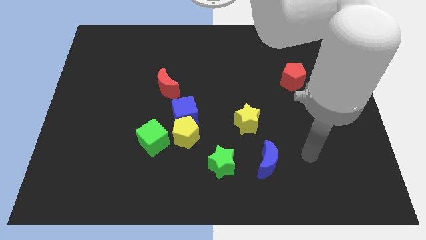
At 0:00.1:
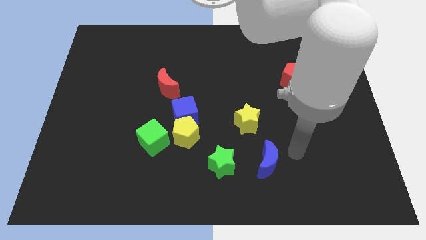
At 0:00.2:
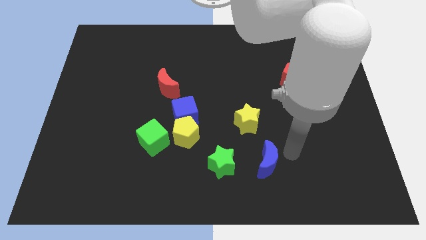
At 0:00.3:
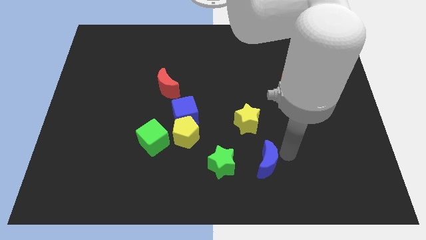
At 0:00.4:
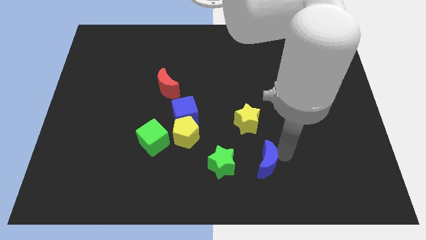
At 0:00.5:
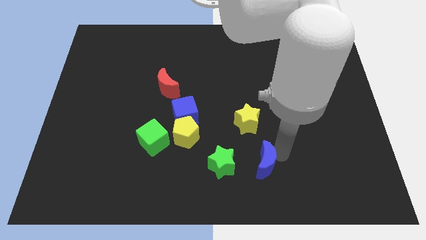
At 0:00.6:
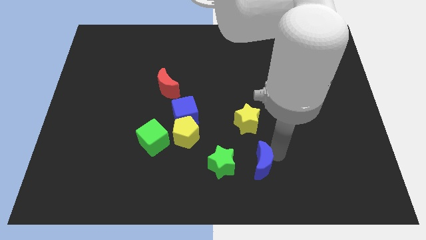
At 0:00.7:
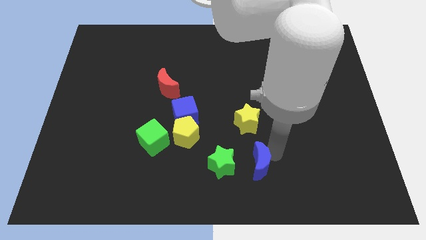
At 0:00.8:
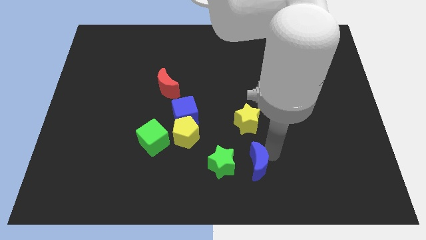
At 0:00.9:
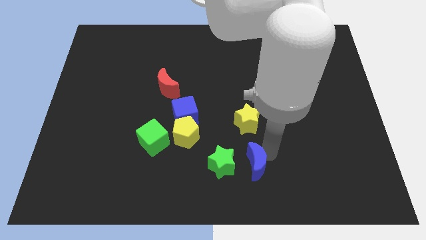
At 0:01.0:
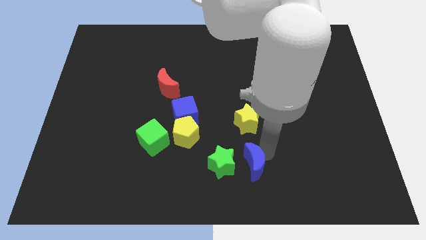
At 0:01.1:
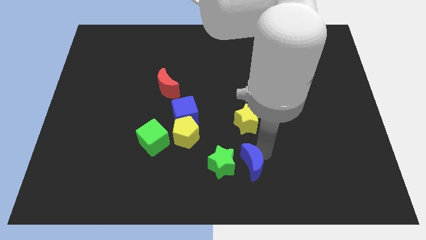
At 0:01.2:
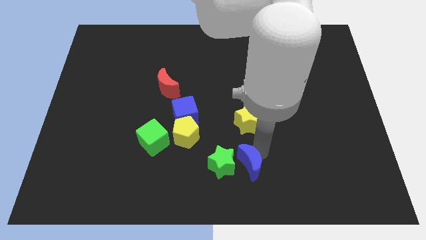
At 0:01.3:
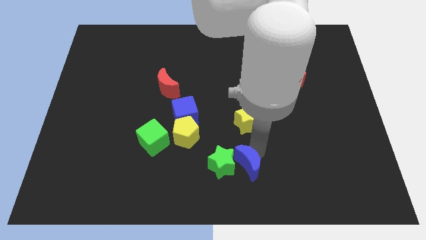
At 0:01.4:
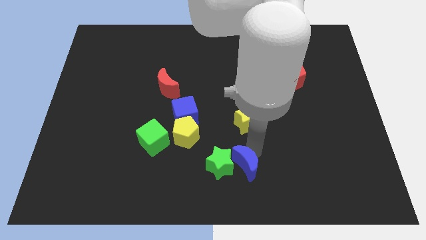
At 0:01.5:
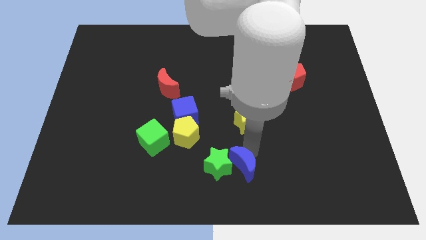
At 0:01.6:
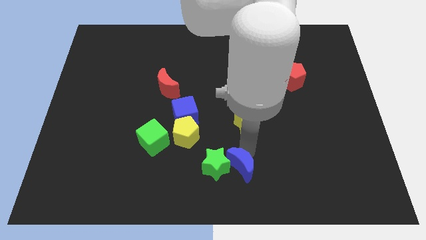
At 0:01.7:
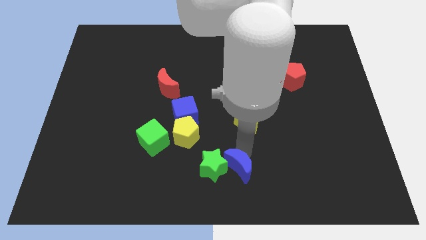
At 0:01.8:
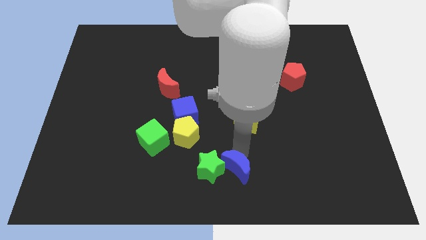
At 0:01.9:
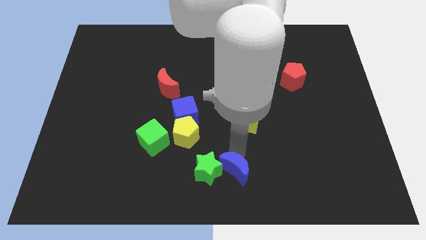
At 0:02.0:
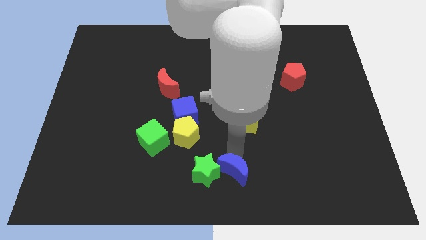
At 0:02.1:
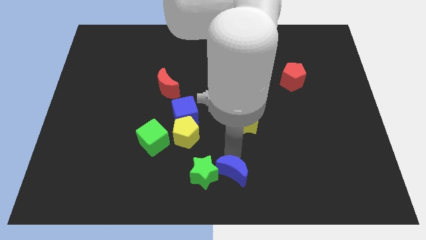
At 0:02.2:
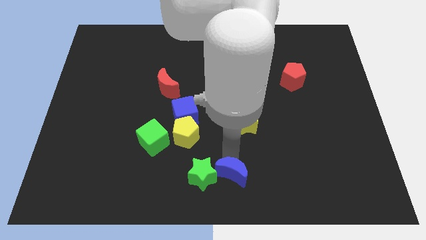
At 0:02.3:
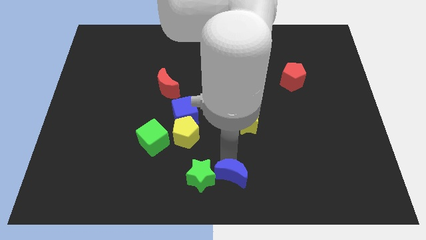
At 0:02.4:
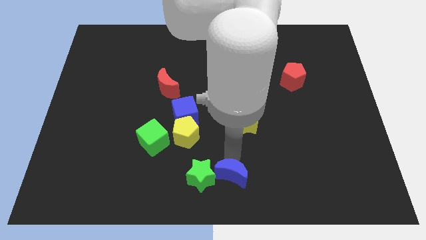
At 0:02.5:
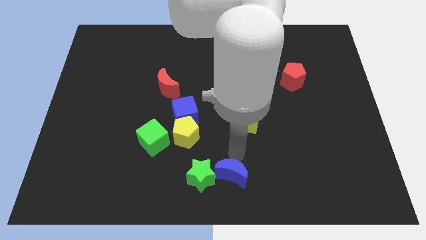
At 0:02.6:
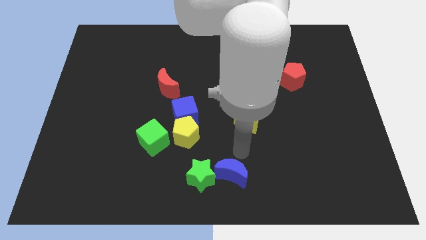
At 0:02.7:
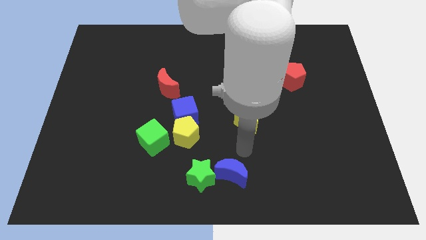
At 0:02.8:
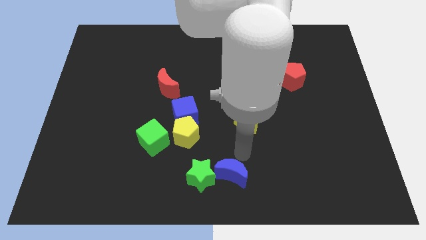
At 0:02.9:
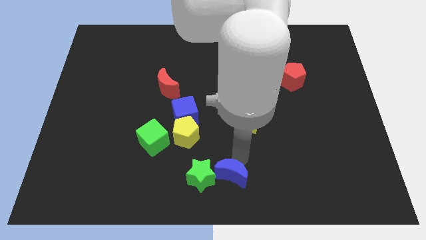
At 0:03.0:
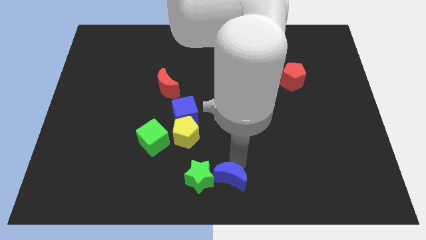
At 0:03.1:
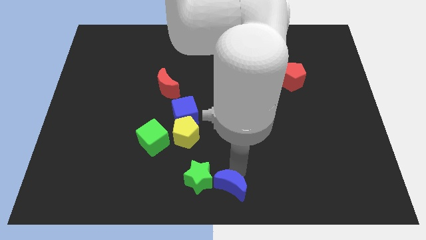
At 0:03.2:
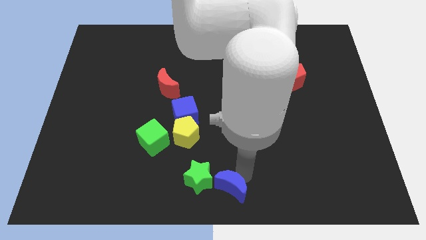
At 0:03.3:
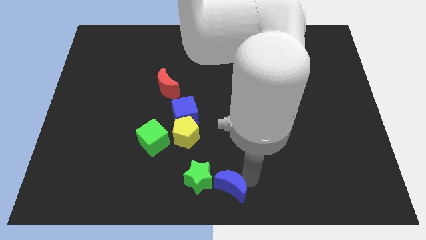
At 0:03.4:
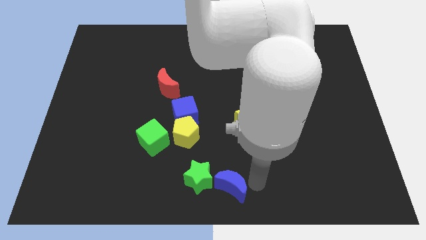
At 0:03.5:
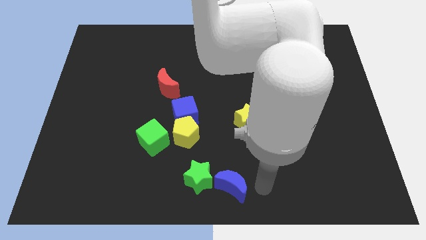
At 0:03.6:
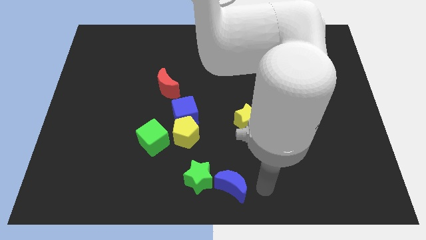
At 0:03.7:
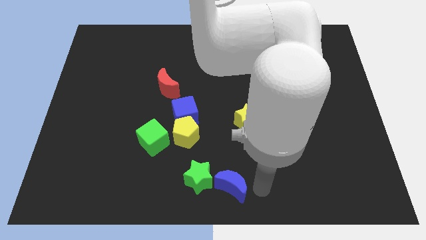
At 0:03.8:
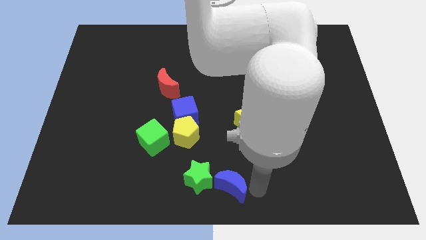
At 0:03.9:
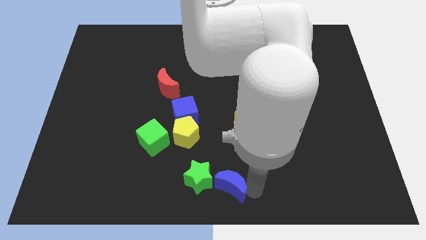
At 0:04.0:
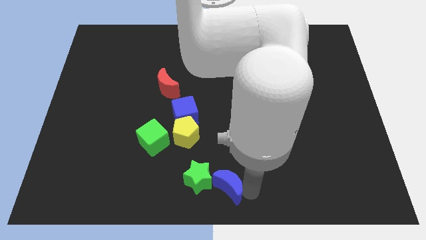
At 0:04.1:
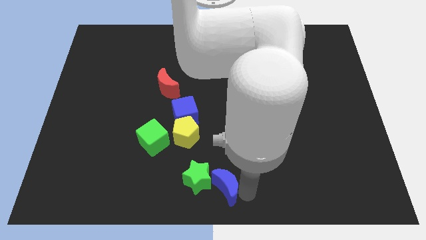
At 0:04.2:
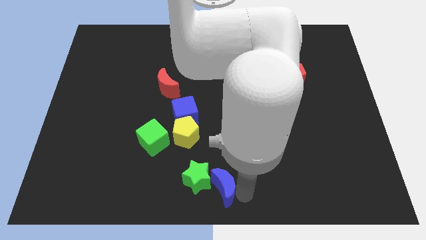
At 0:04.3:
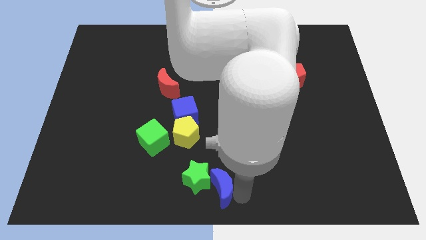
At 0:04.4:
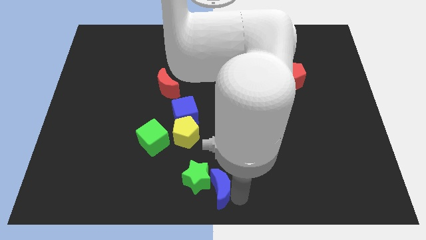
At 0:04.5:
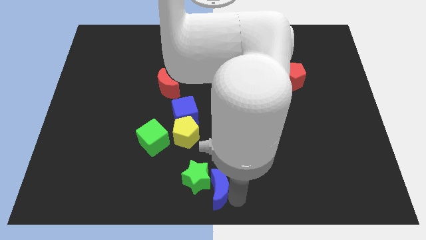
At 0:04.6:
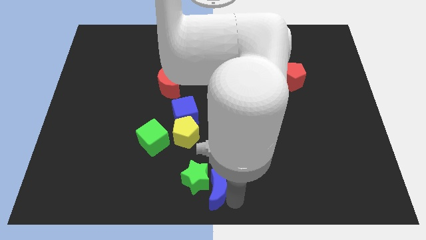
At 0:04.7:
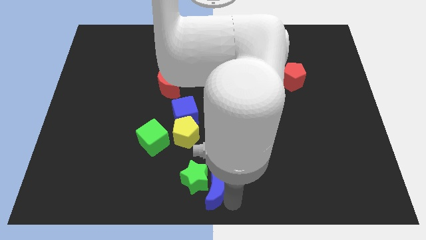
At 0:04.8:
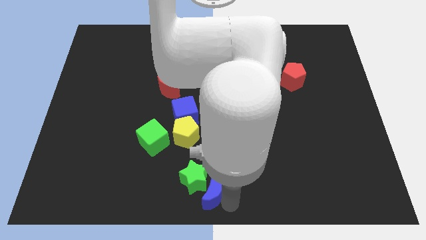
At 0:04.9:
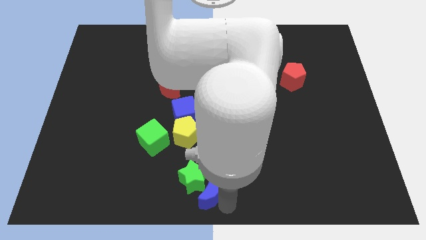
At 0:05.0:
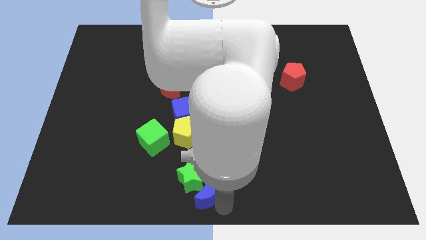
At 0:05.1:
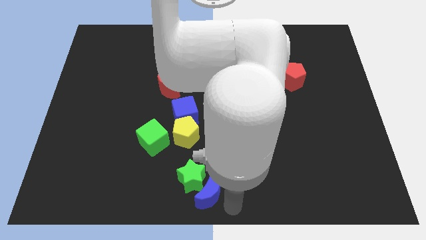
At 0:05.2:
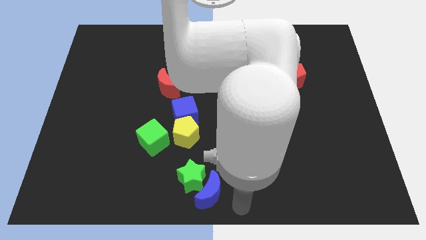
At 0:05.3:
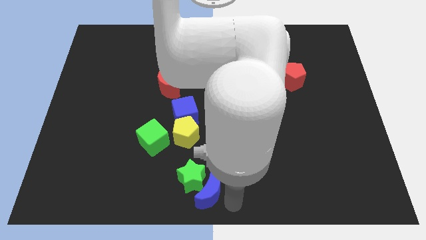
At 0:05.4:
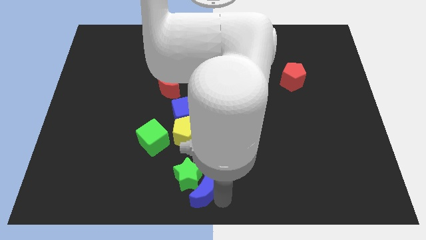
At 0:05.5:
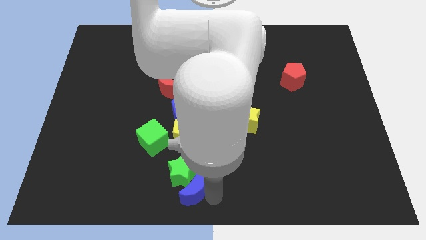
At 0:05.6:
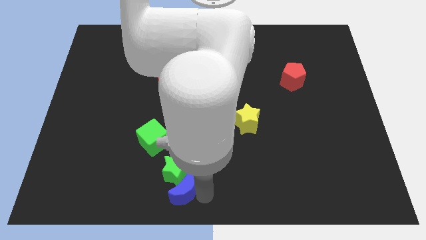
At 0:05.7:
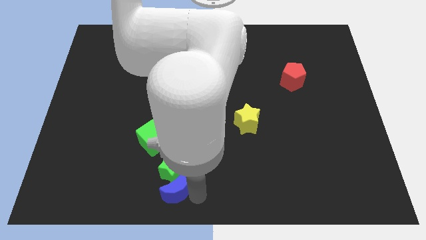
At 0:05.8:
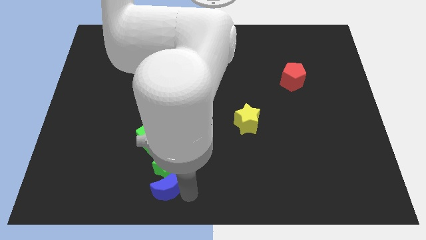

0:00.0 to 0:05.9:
put the blue moon to the bottom of the green cube

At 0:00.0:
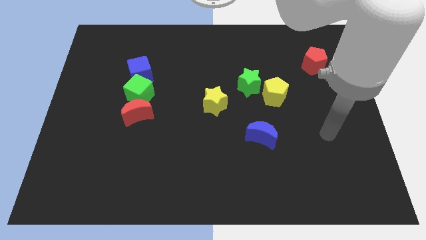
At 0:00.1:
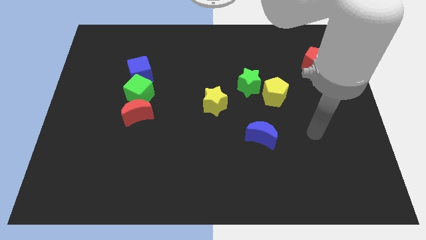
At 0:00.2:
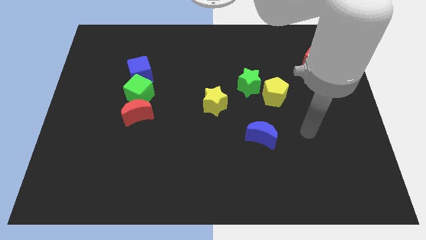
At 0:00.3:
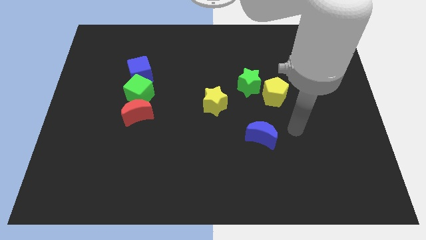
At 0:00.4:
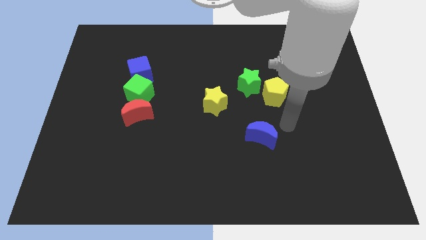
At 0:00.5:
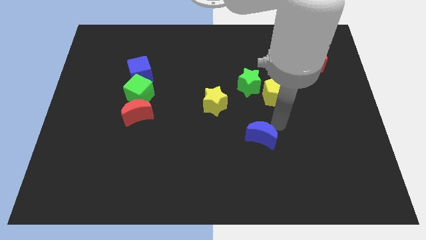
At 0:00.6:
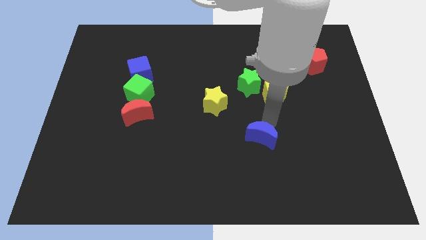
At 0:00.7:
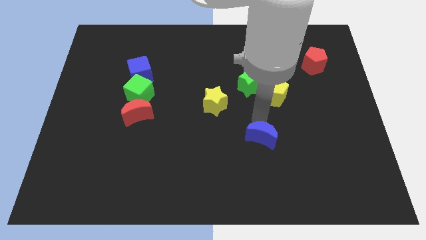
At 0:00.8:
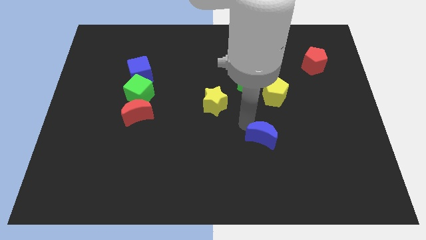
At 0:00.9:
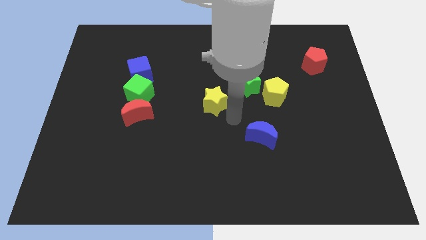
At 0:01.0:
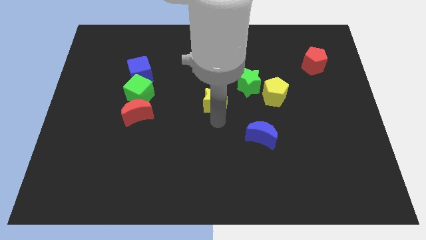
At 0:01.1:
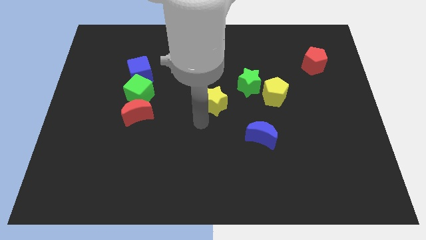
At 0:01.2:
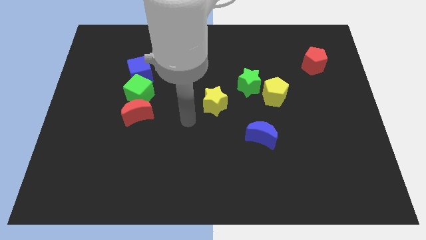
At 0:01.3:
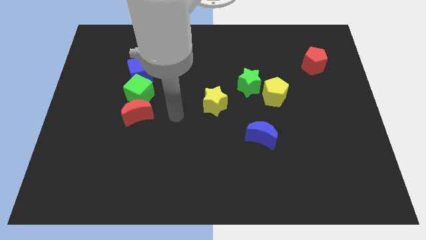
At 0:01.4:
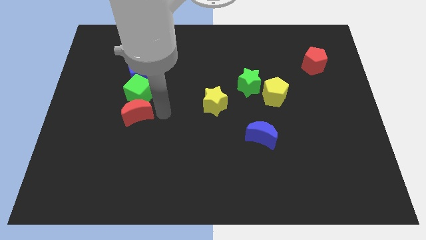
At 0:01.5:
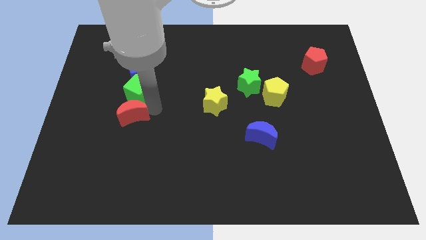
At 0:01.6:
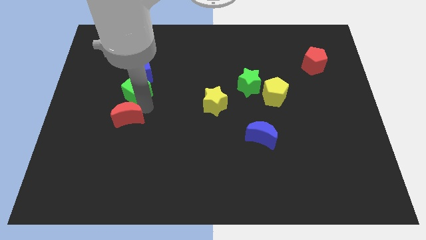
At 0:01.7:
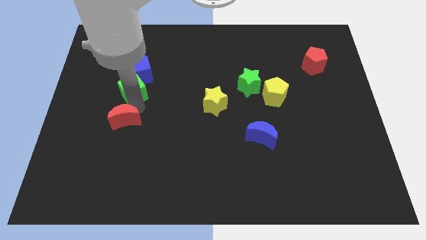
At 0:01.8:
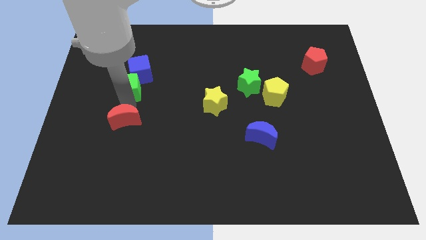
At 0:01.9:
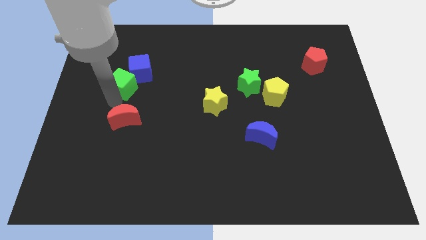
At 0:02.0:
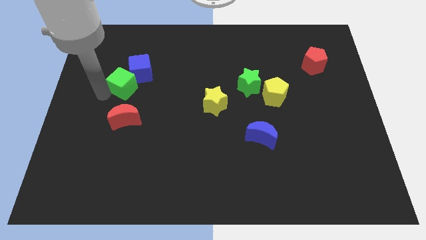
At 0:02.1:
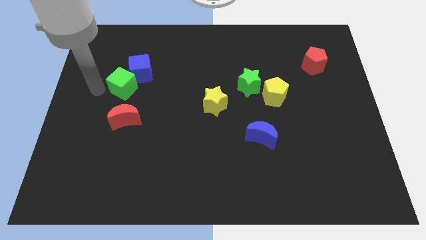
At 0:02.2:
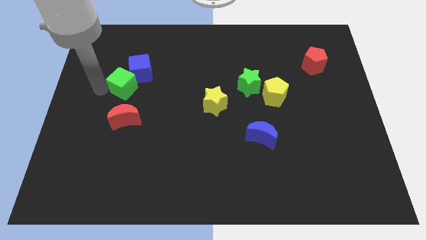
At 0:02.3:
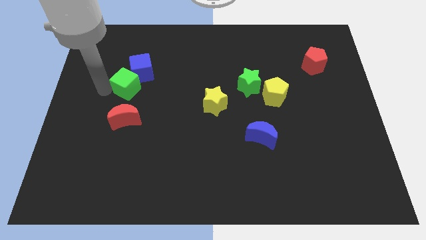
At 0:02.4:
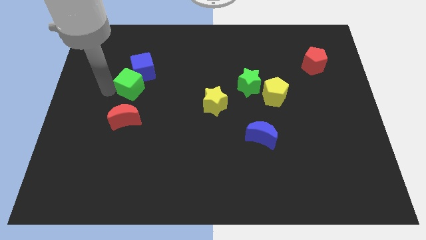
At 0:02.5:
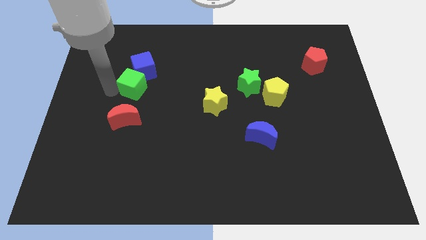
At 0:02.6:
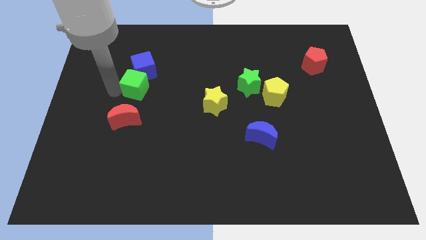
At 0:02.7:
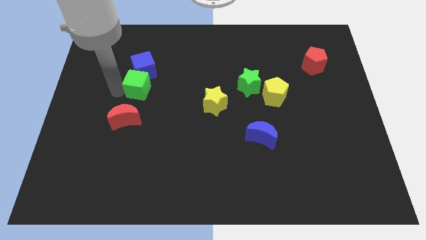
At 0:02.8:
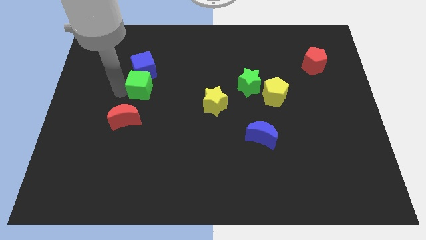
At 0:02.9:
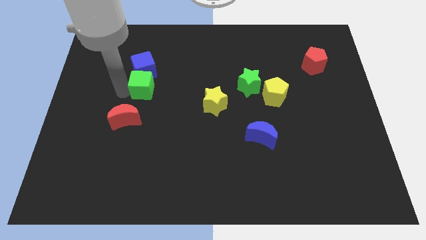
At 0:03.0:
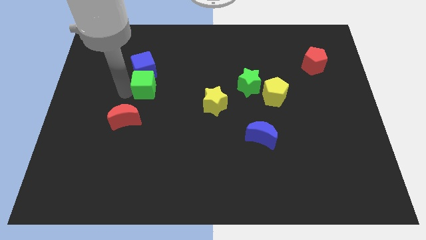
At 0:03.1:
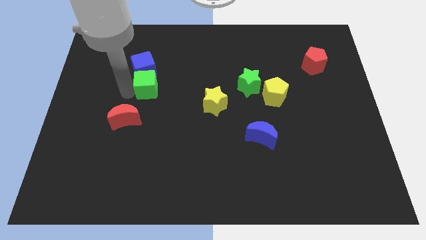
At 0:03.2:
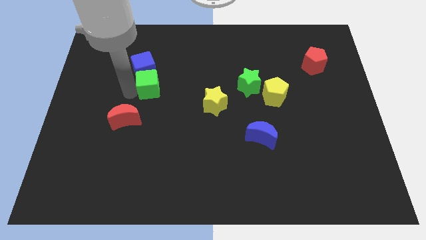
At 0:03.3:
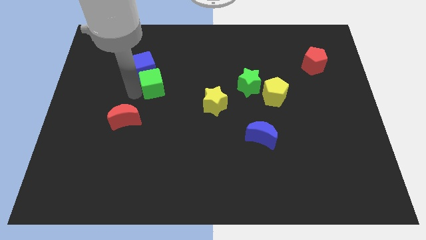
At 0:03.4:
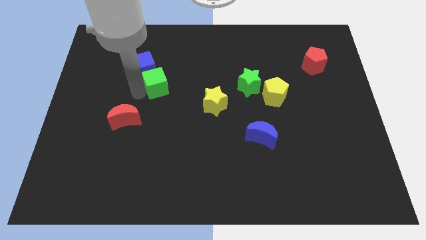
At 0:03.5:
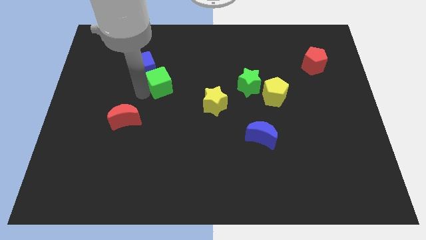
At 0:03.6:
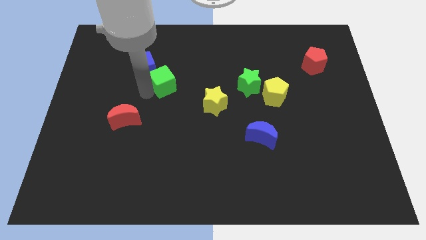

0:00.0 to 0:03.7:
slide the green cube to the right side of the blue cube
